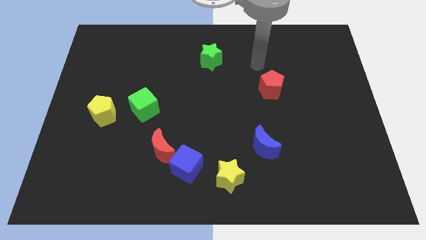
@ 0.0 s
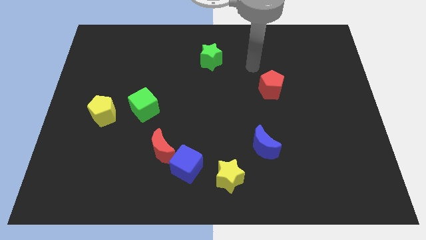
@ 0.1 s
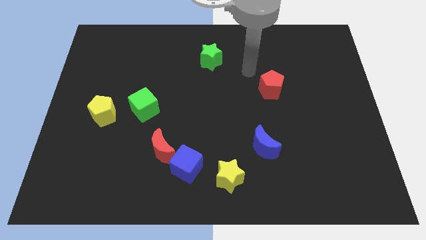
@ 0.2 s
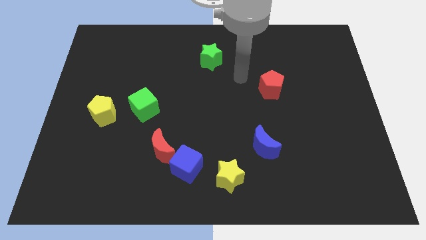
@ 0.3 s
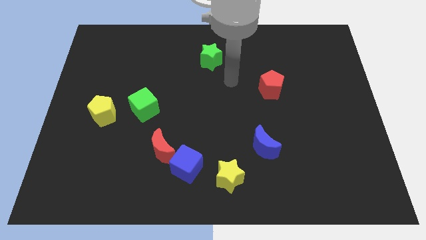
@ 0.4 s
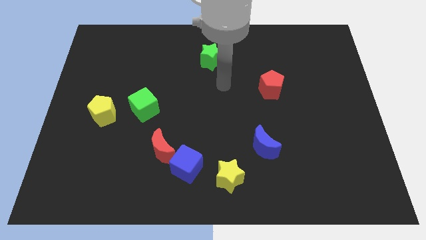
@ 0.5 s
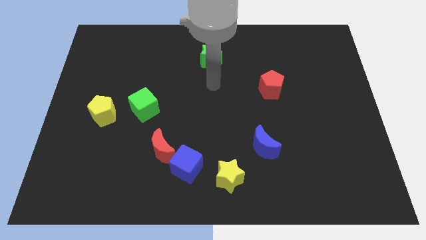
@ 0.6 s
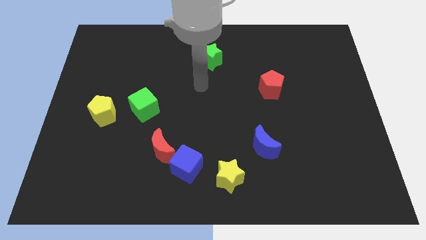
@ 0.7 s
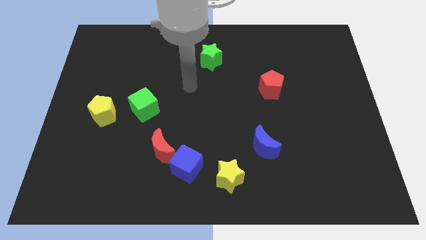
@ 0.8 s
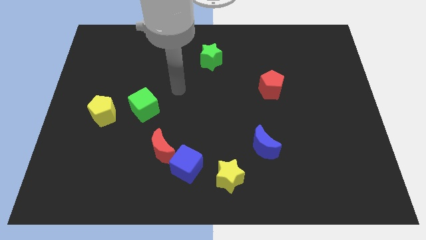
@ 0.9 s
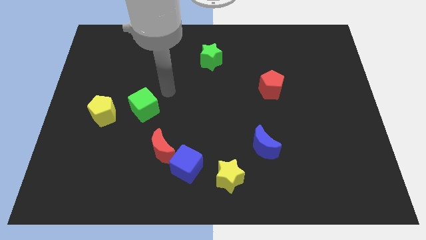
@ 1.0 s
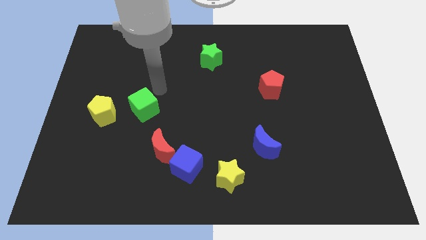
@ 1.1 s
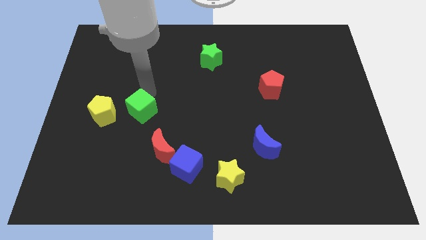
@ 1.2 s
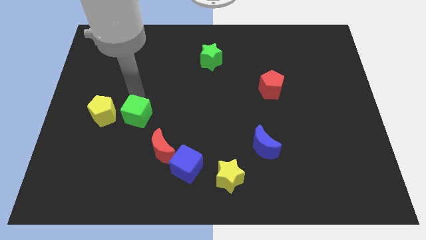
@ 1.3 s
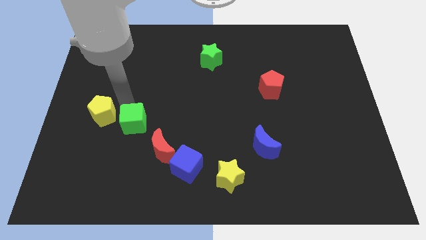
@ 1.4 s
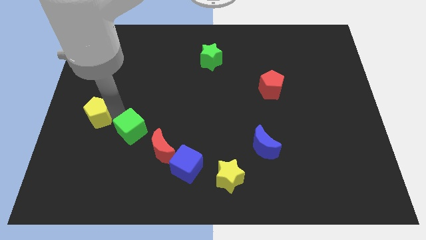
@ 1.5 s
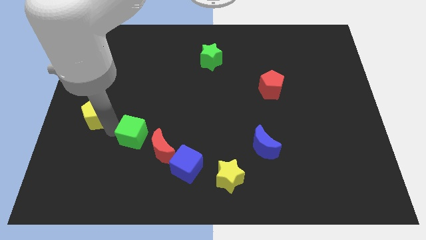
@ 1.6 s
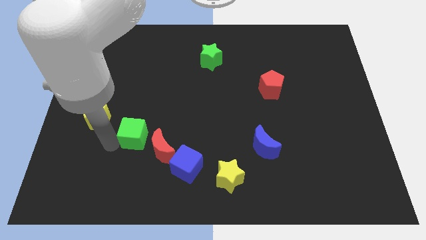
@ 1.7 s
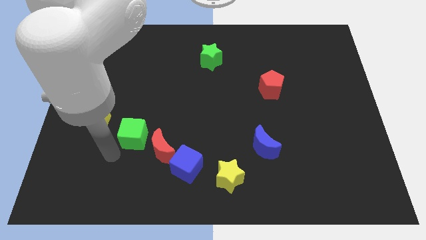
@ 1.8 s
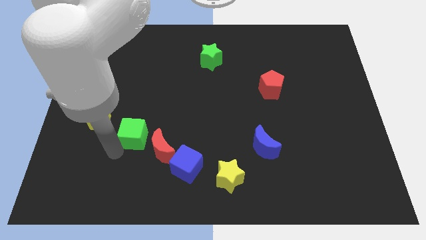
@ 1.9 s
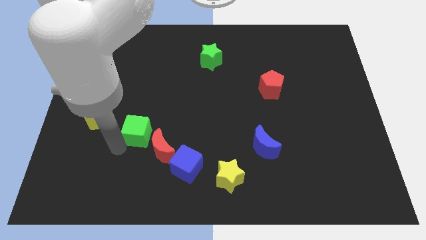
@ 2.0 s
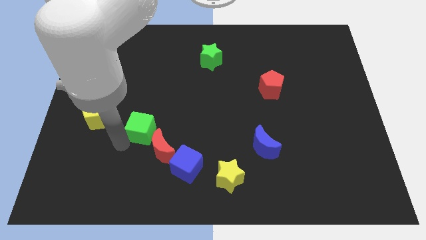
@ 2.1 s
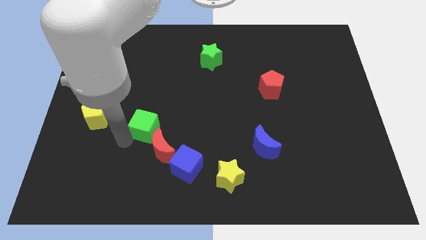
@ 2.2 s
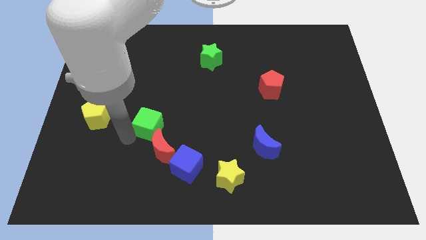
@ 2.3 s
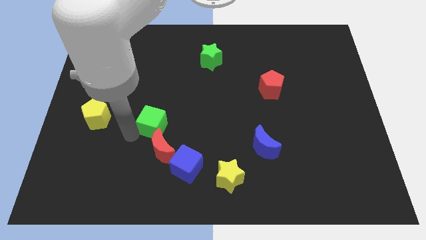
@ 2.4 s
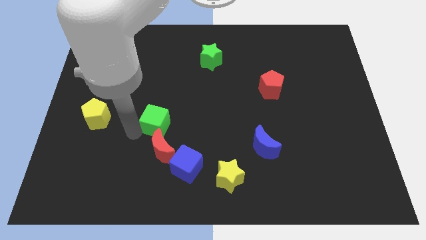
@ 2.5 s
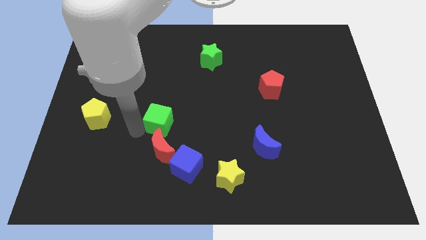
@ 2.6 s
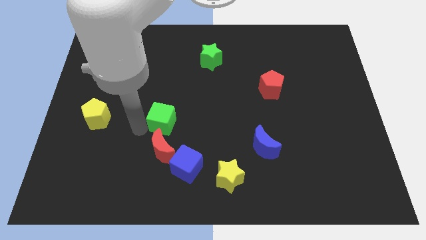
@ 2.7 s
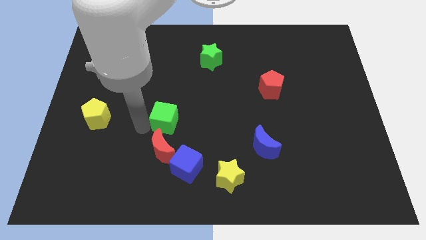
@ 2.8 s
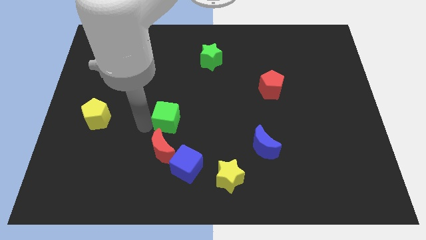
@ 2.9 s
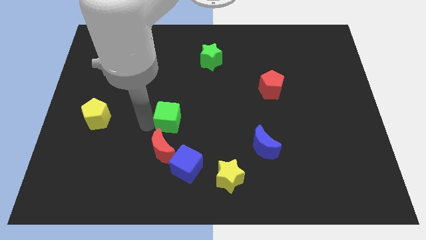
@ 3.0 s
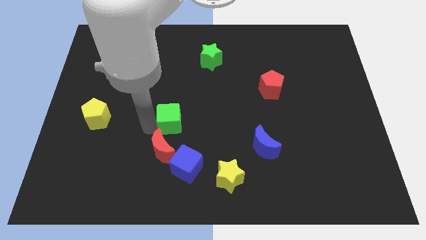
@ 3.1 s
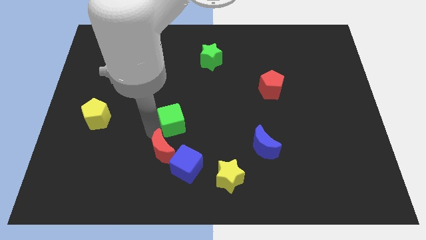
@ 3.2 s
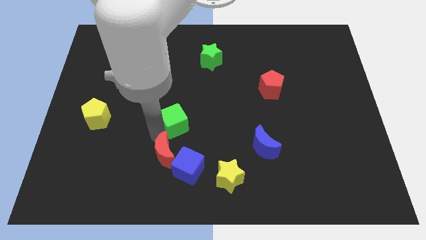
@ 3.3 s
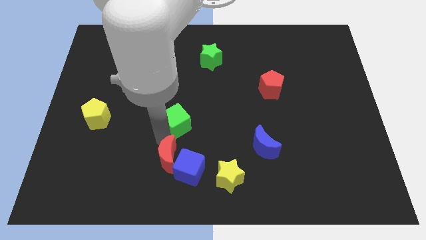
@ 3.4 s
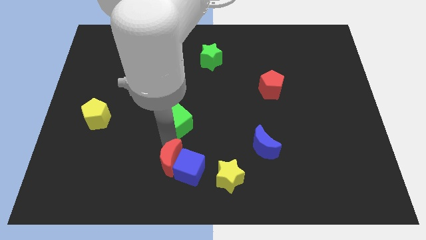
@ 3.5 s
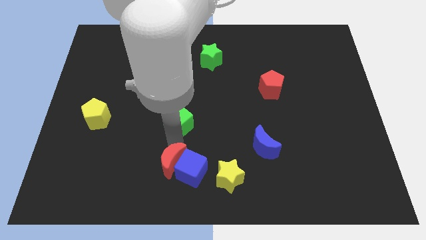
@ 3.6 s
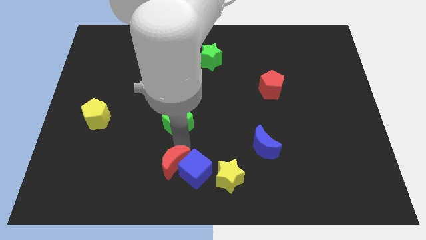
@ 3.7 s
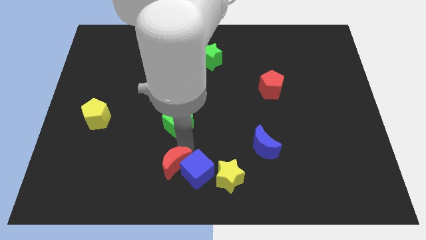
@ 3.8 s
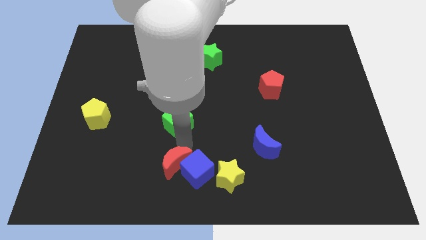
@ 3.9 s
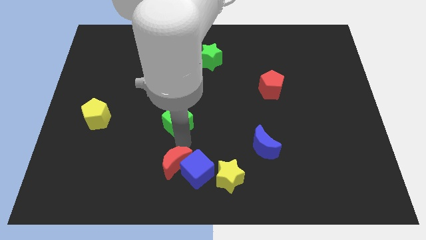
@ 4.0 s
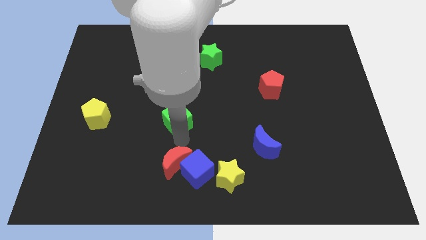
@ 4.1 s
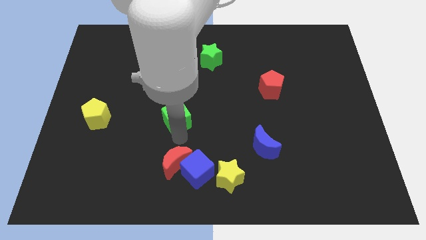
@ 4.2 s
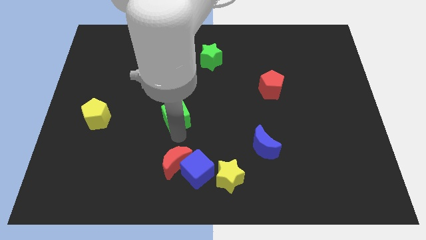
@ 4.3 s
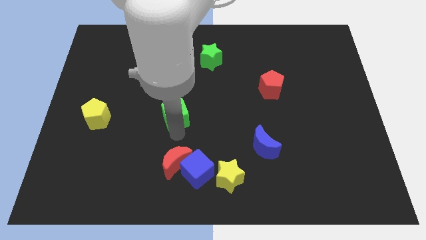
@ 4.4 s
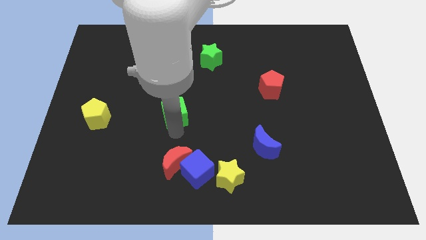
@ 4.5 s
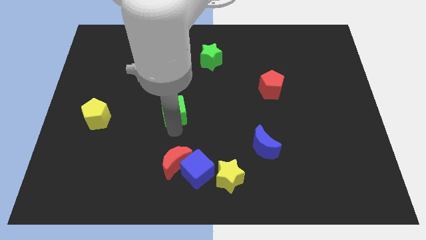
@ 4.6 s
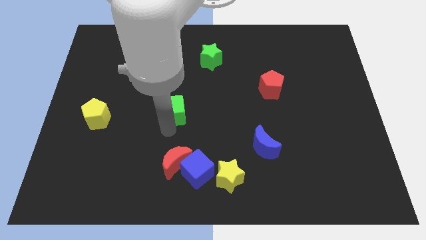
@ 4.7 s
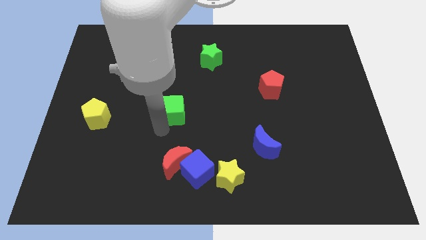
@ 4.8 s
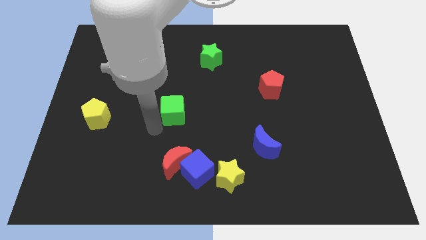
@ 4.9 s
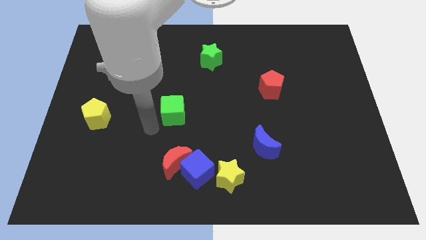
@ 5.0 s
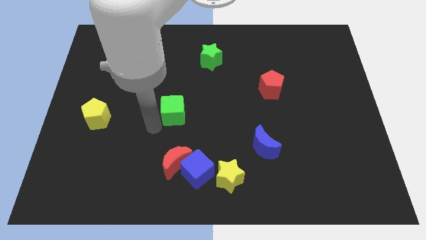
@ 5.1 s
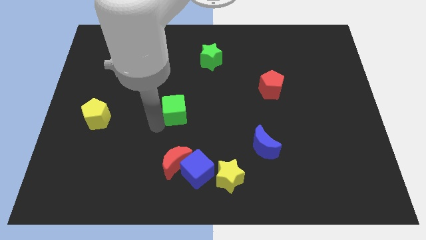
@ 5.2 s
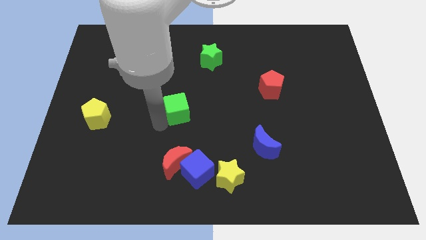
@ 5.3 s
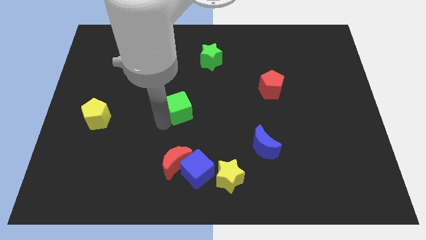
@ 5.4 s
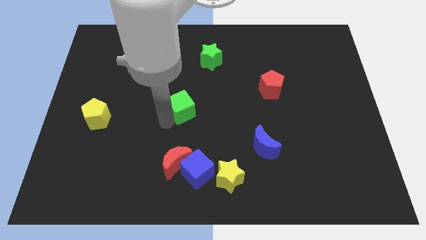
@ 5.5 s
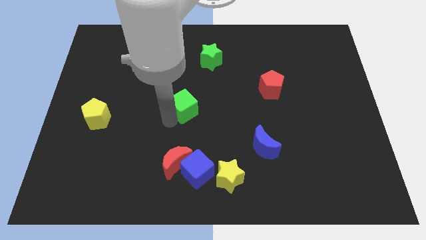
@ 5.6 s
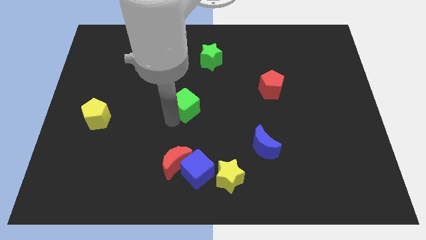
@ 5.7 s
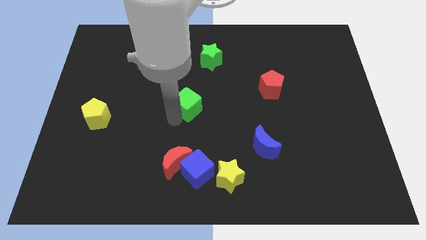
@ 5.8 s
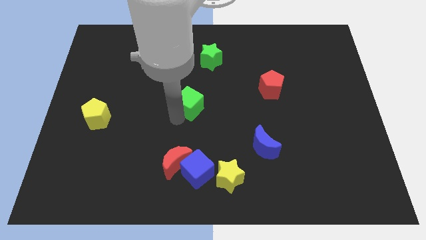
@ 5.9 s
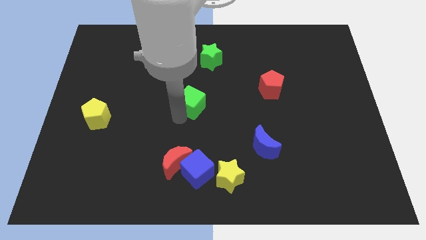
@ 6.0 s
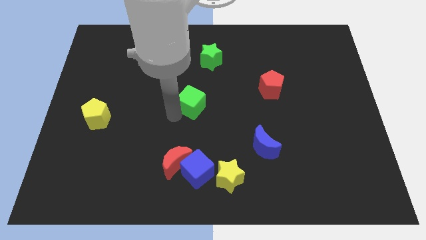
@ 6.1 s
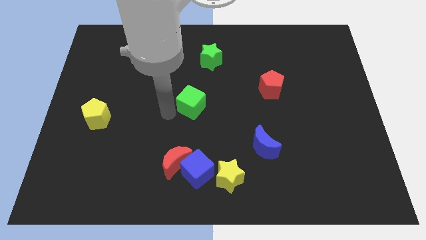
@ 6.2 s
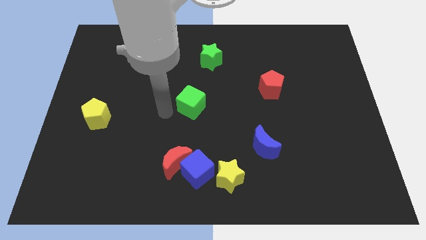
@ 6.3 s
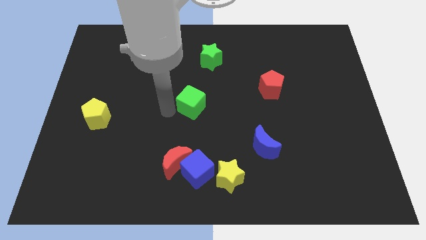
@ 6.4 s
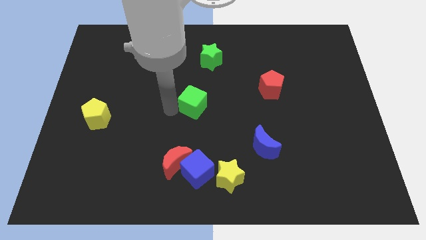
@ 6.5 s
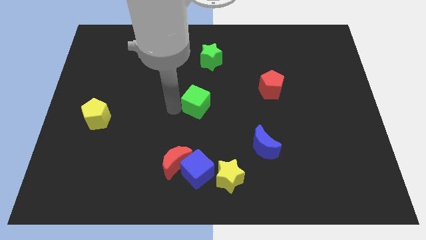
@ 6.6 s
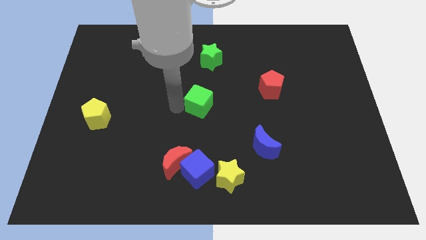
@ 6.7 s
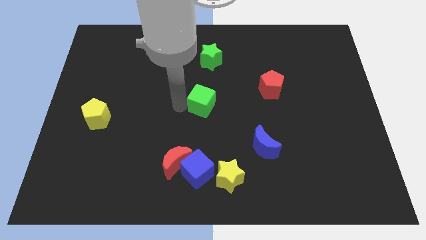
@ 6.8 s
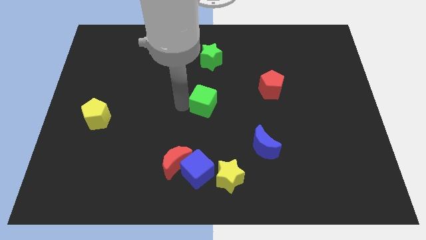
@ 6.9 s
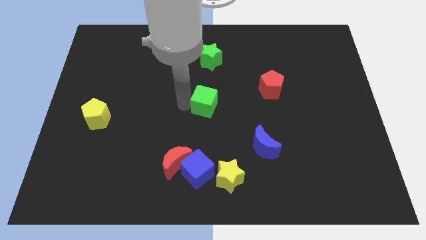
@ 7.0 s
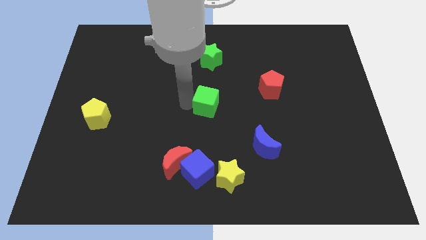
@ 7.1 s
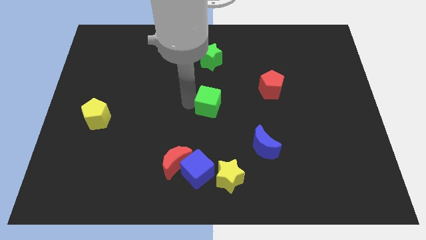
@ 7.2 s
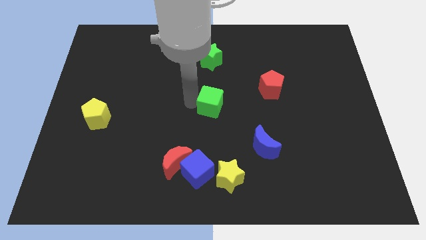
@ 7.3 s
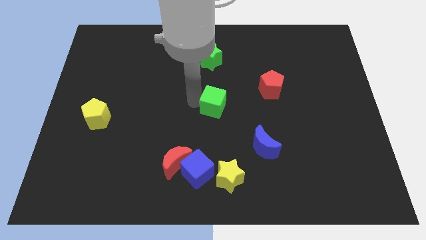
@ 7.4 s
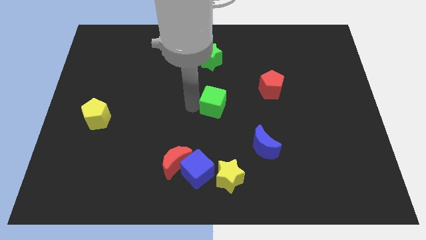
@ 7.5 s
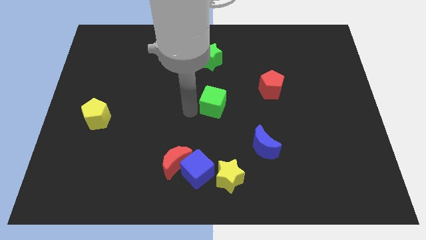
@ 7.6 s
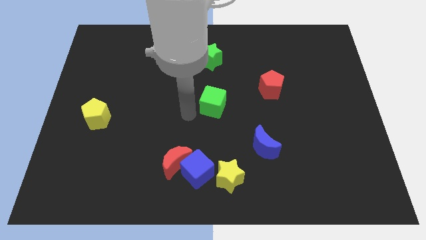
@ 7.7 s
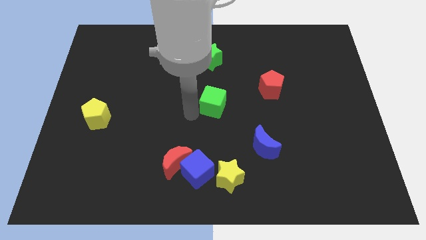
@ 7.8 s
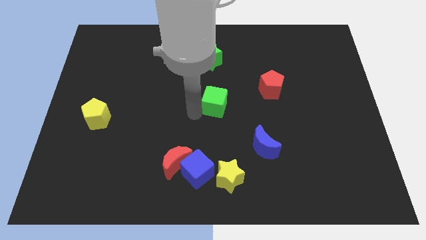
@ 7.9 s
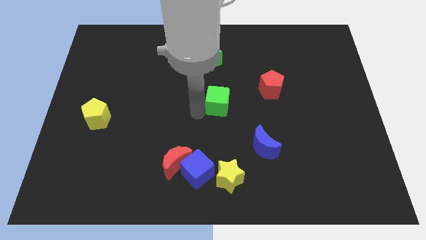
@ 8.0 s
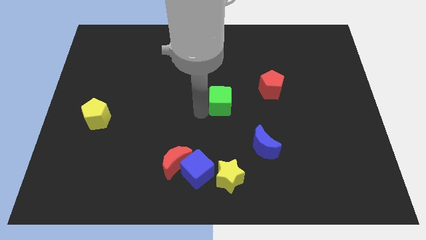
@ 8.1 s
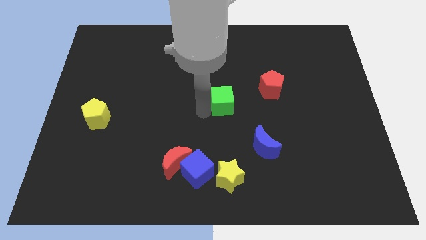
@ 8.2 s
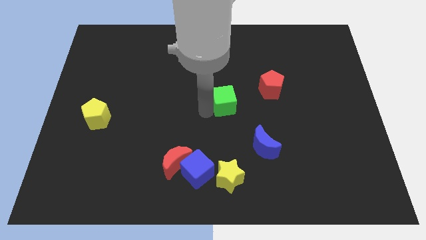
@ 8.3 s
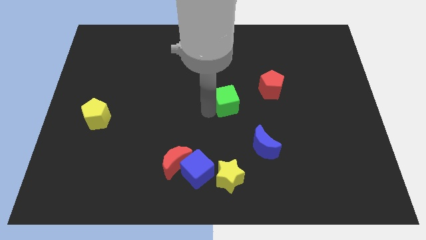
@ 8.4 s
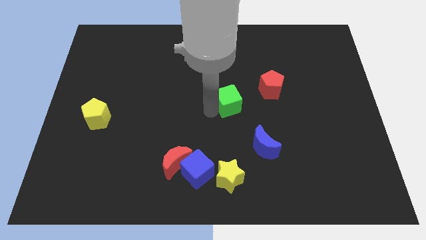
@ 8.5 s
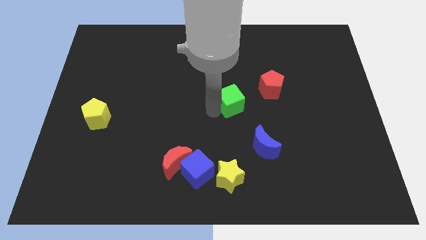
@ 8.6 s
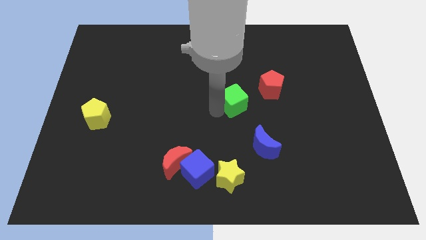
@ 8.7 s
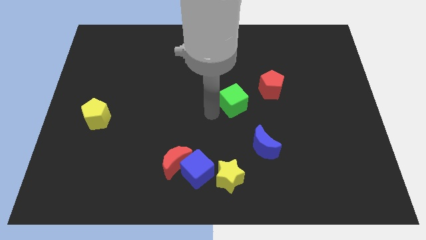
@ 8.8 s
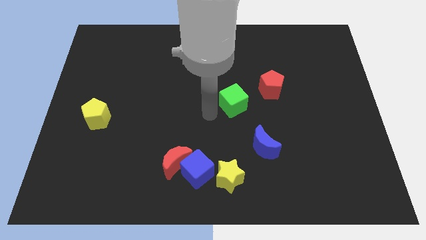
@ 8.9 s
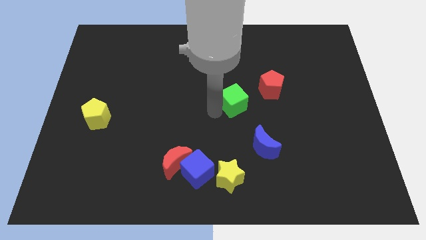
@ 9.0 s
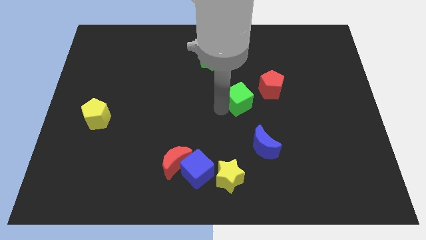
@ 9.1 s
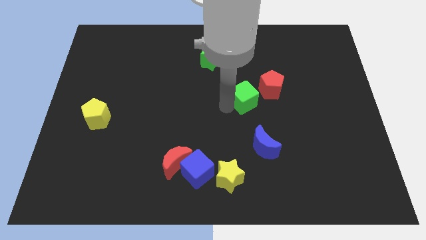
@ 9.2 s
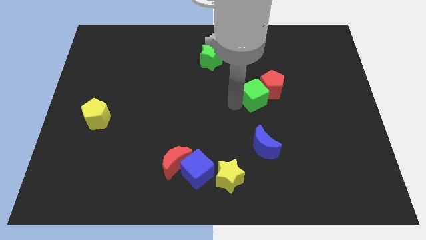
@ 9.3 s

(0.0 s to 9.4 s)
put the green cube towards the red pentagon
